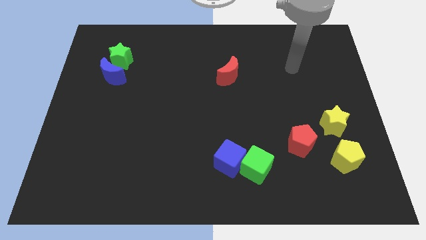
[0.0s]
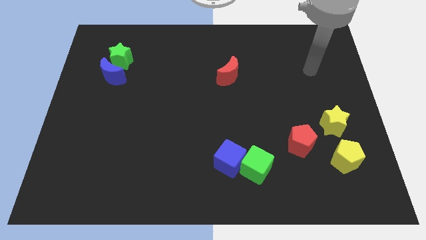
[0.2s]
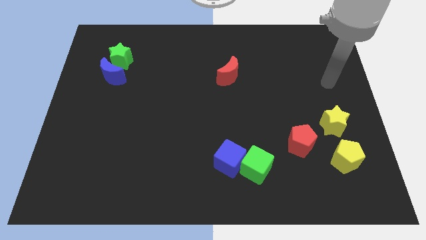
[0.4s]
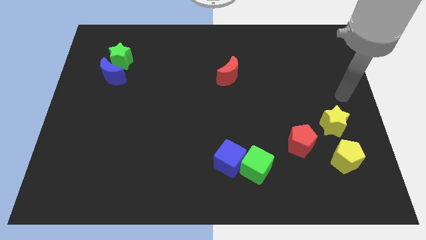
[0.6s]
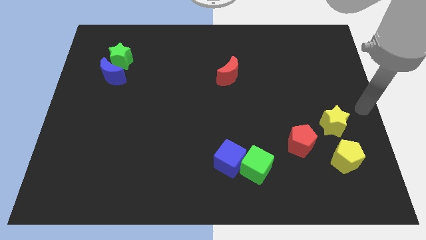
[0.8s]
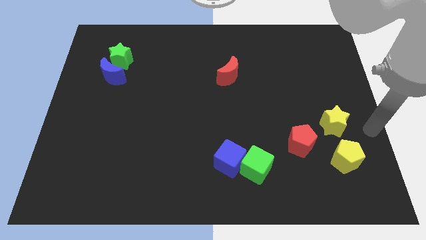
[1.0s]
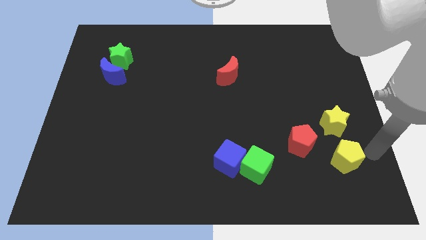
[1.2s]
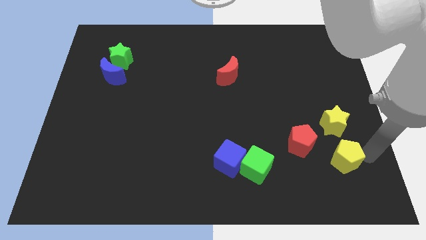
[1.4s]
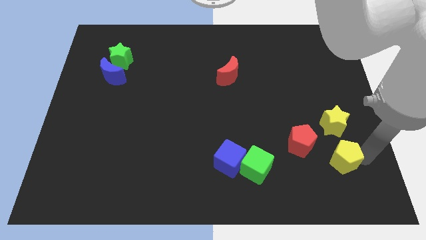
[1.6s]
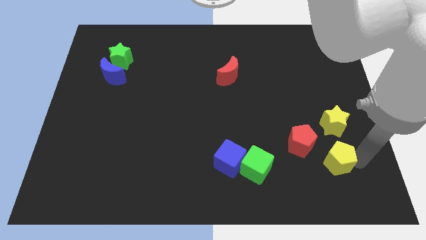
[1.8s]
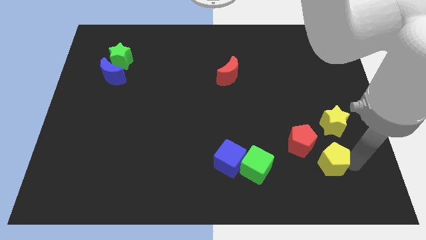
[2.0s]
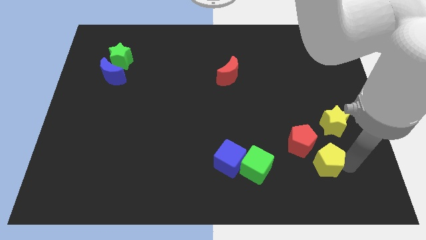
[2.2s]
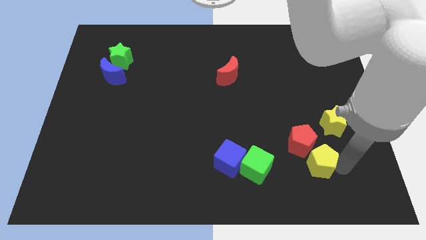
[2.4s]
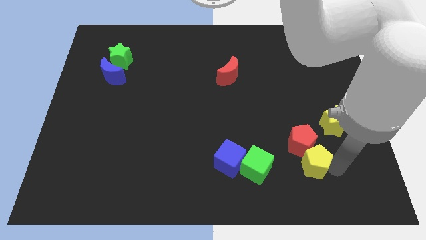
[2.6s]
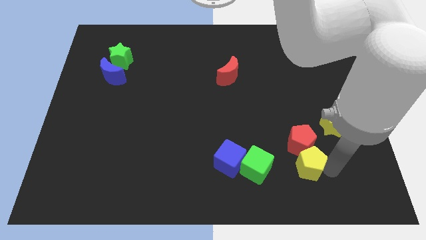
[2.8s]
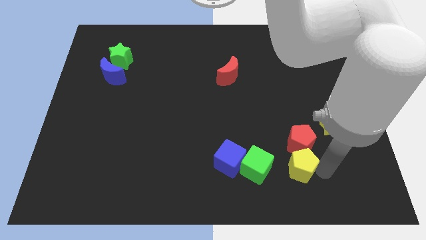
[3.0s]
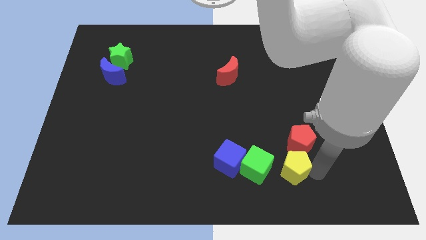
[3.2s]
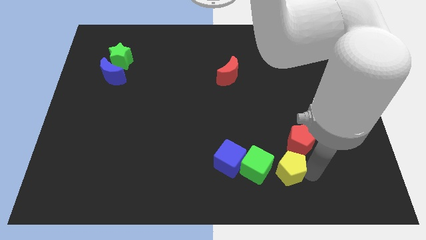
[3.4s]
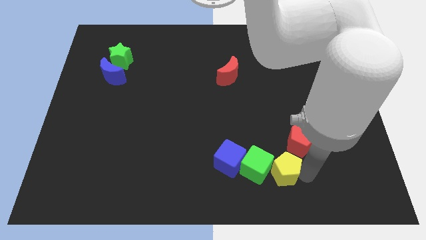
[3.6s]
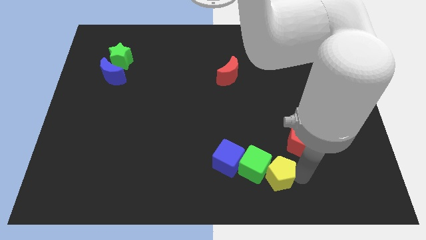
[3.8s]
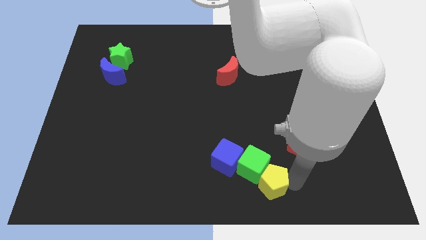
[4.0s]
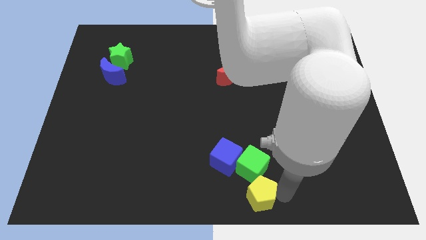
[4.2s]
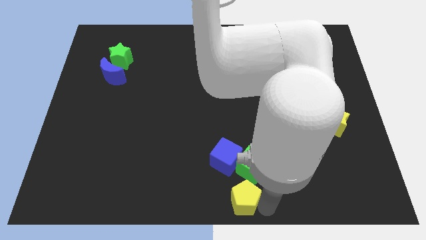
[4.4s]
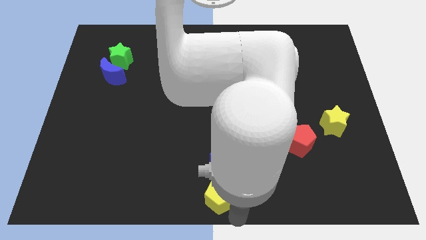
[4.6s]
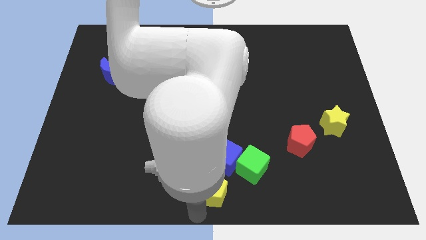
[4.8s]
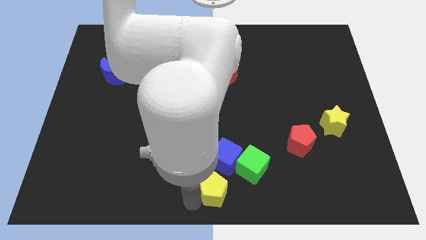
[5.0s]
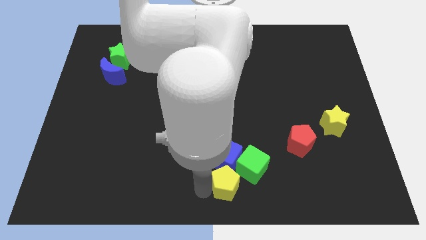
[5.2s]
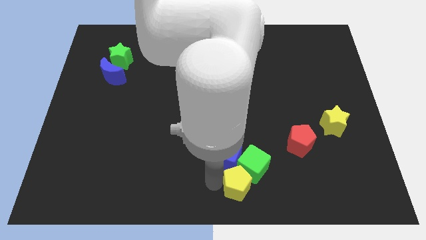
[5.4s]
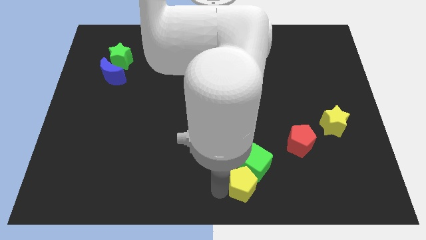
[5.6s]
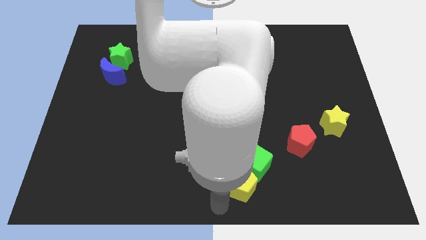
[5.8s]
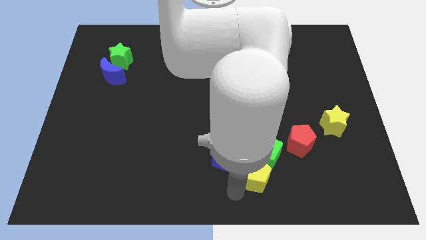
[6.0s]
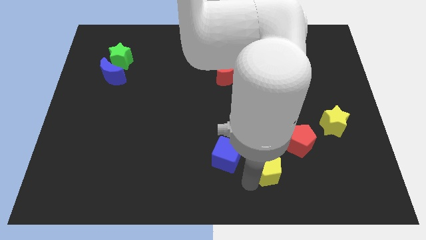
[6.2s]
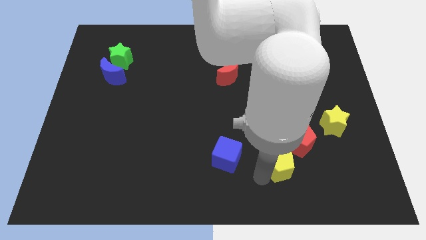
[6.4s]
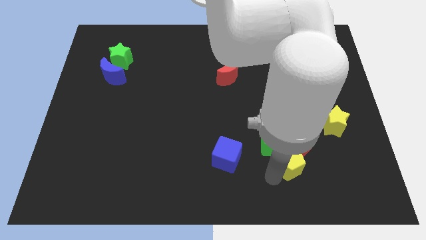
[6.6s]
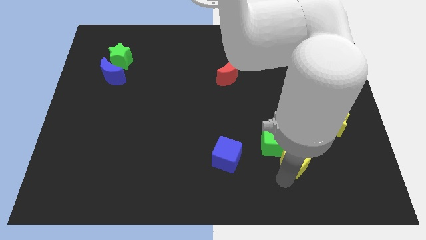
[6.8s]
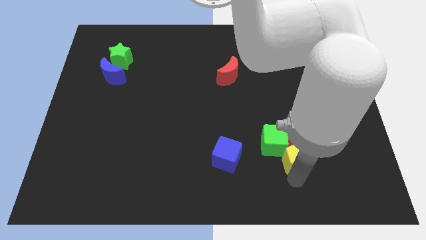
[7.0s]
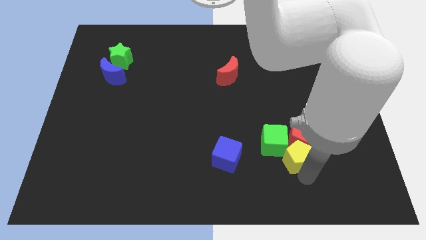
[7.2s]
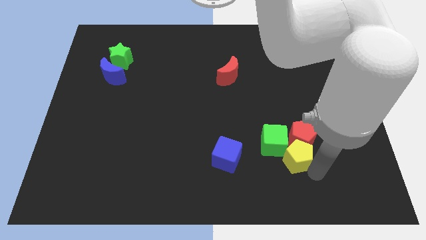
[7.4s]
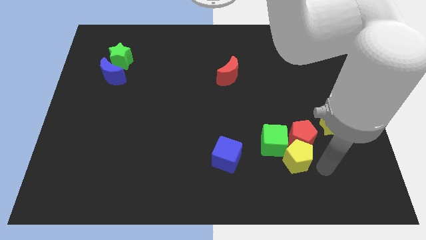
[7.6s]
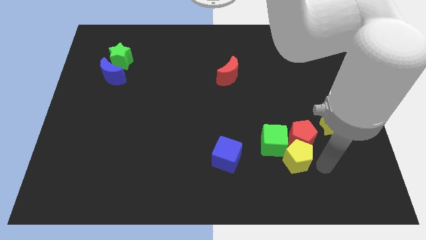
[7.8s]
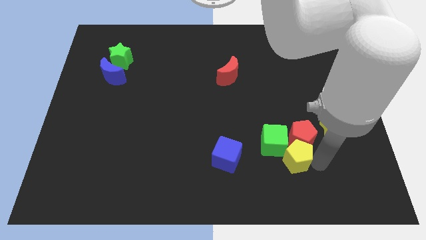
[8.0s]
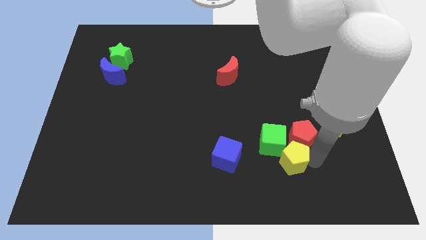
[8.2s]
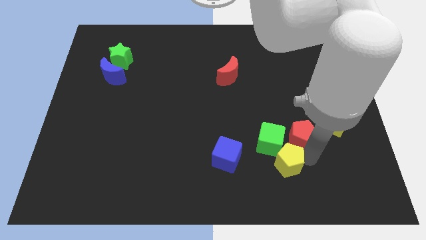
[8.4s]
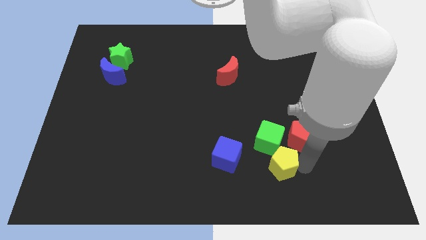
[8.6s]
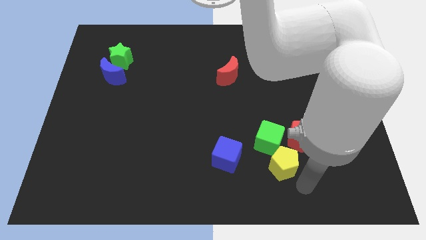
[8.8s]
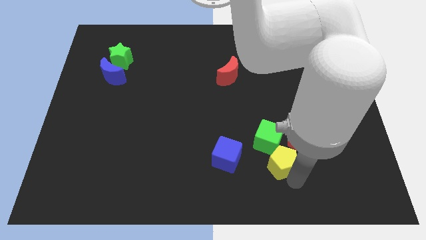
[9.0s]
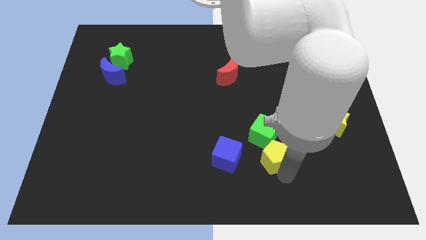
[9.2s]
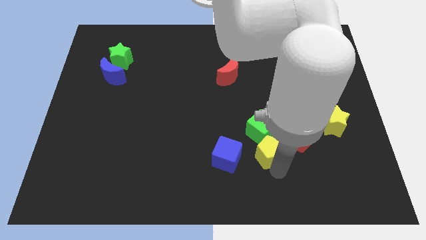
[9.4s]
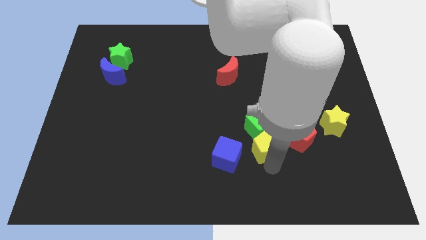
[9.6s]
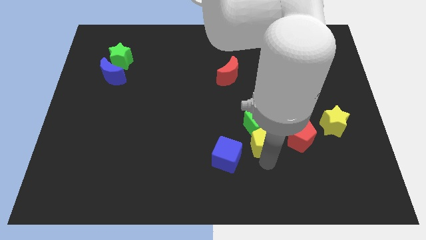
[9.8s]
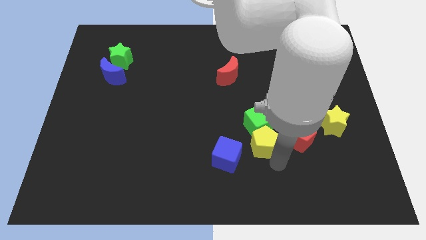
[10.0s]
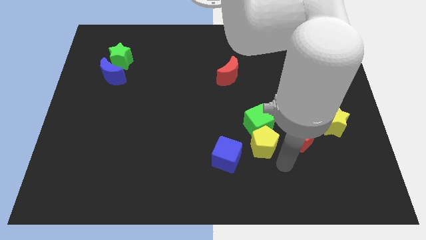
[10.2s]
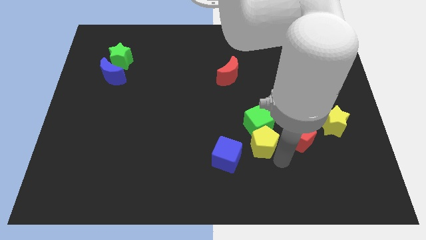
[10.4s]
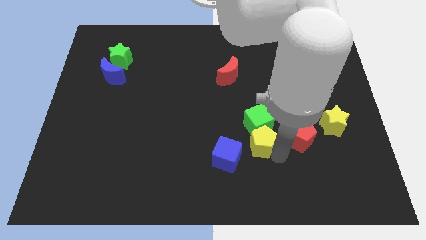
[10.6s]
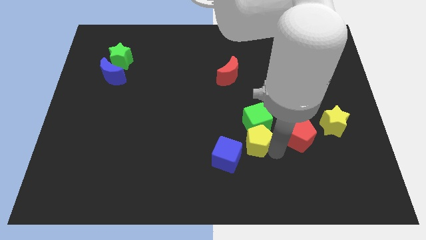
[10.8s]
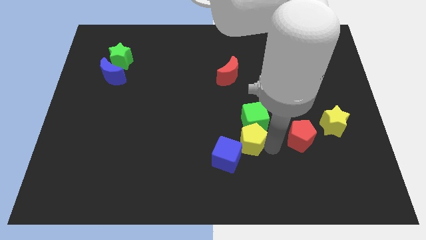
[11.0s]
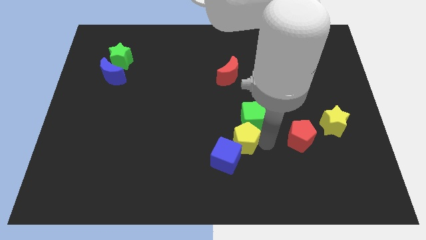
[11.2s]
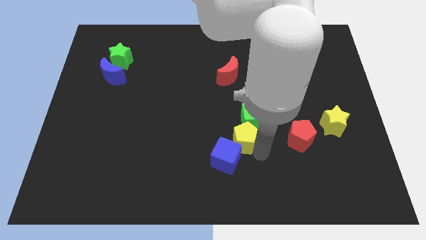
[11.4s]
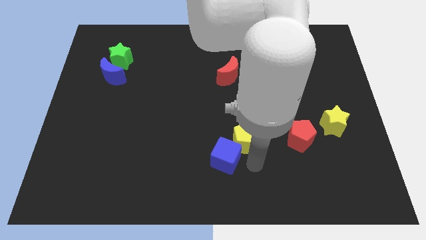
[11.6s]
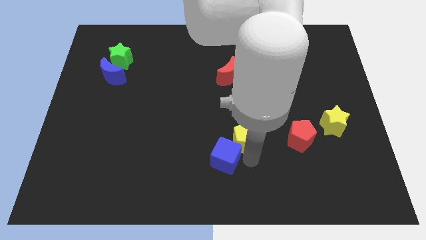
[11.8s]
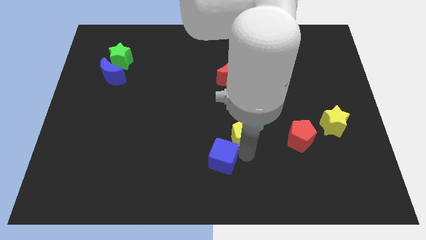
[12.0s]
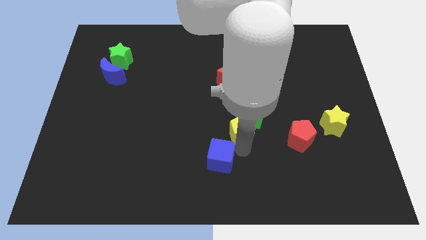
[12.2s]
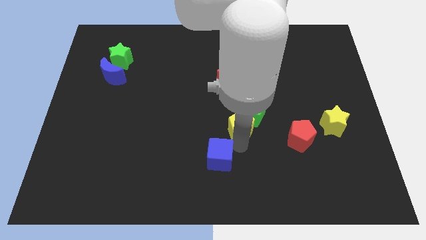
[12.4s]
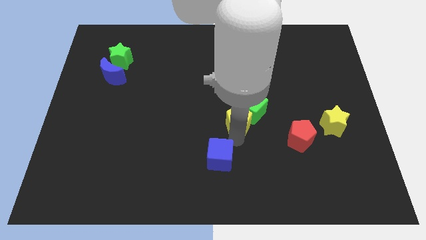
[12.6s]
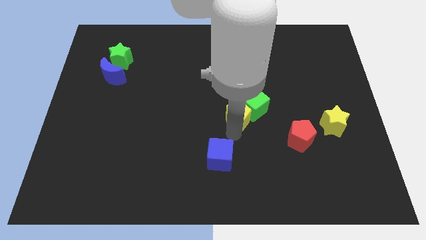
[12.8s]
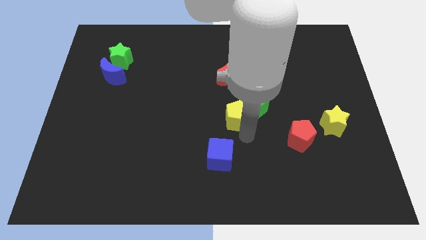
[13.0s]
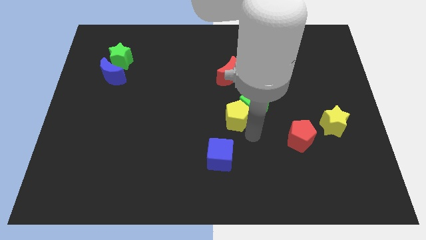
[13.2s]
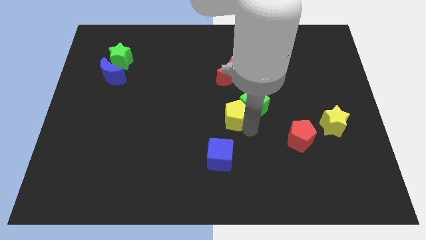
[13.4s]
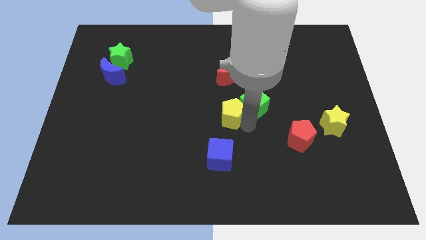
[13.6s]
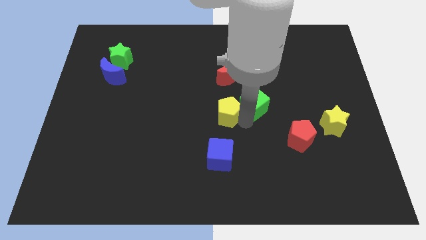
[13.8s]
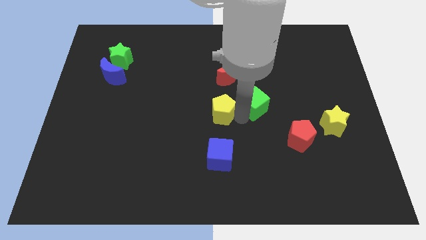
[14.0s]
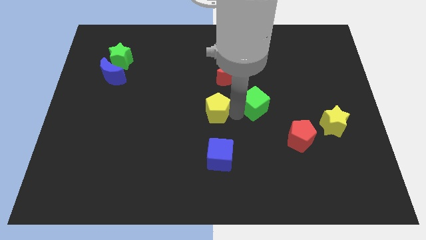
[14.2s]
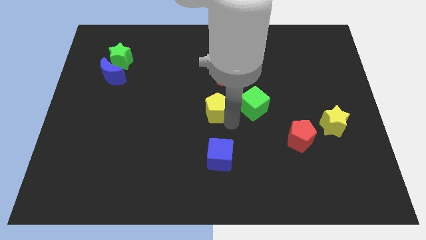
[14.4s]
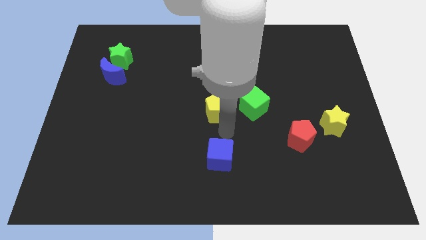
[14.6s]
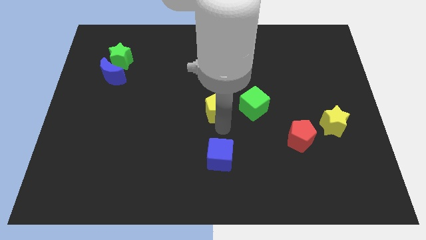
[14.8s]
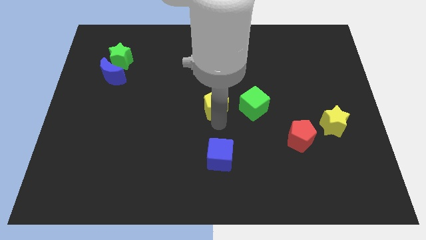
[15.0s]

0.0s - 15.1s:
push the yellow pentagon to the bottom left side of the red moon
